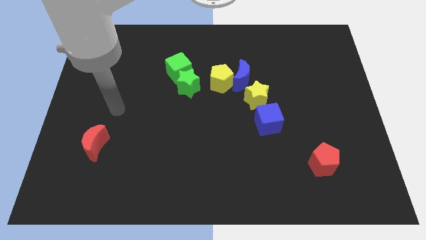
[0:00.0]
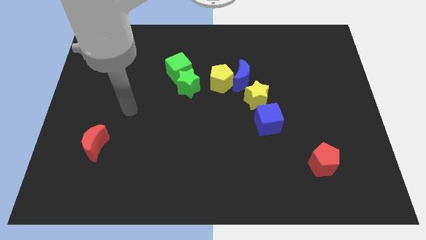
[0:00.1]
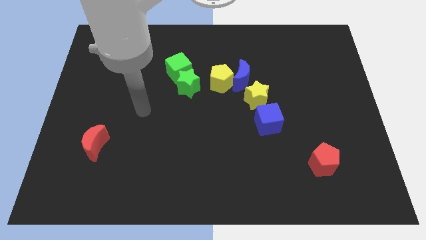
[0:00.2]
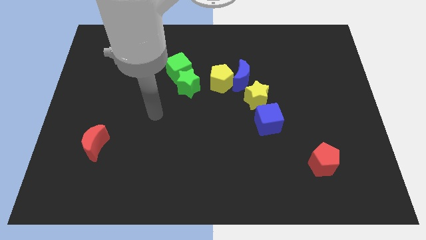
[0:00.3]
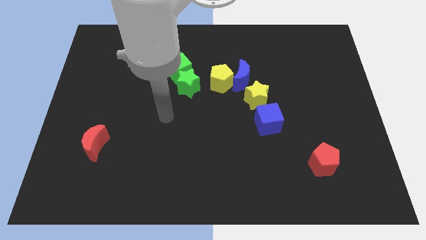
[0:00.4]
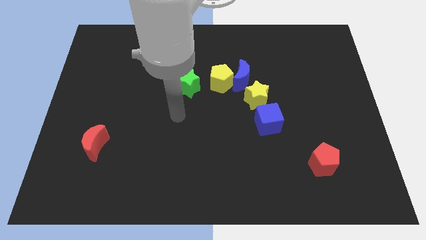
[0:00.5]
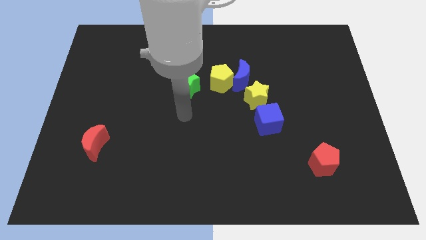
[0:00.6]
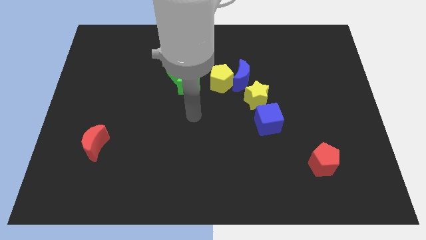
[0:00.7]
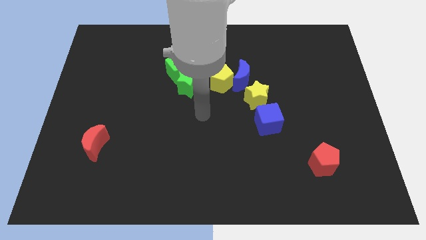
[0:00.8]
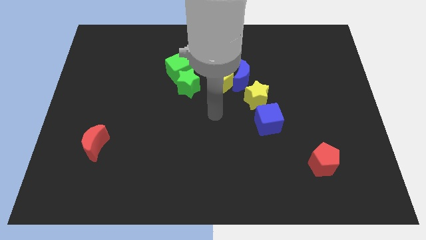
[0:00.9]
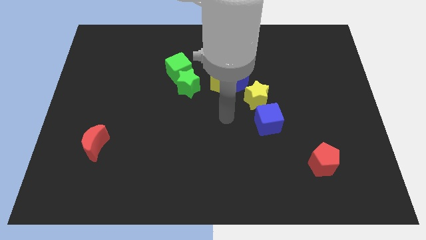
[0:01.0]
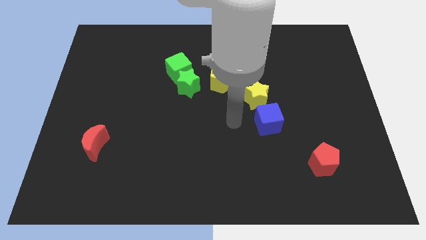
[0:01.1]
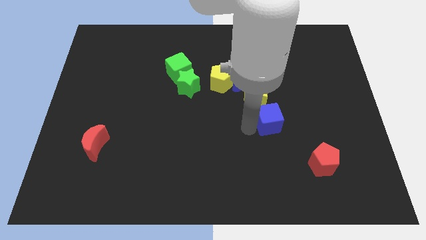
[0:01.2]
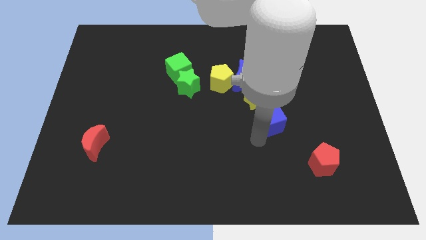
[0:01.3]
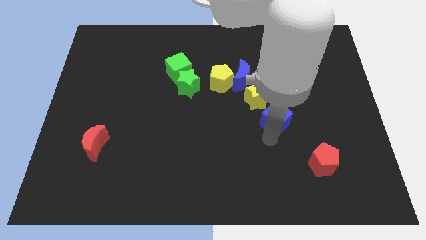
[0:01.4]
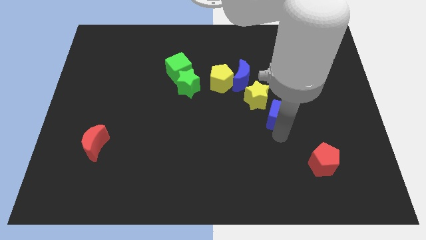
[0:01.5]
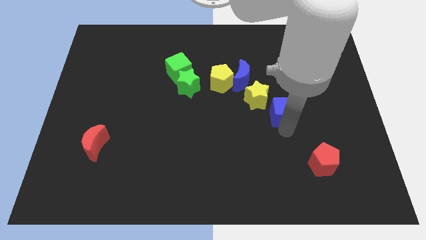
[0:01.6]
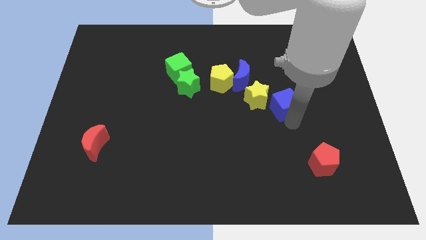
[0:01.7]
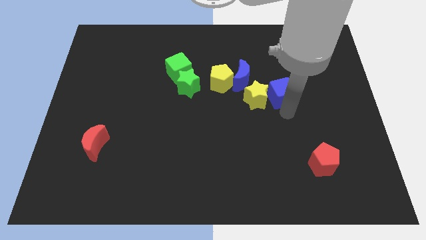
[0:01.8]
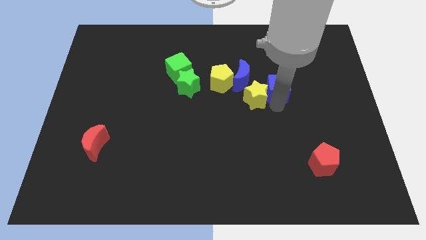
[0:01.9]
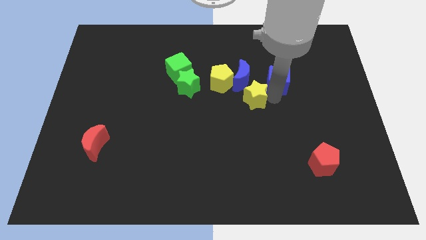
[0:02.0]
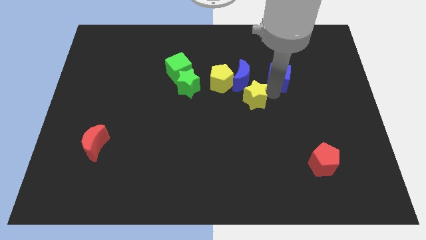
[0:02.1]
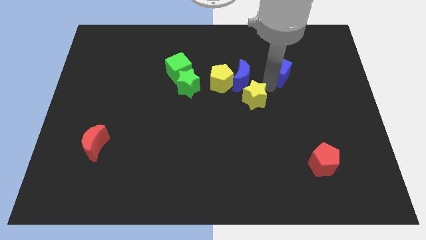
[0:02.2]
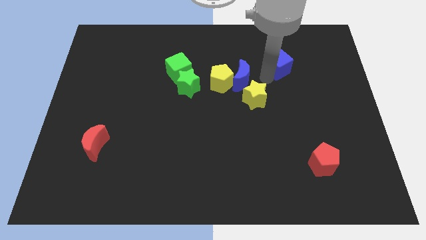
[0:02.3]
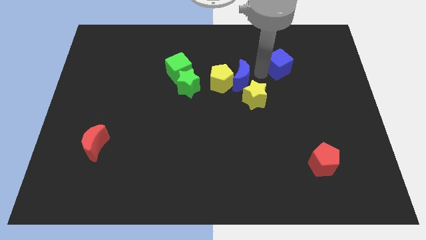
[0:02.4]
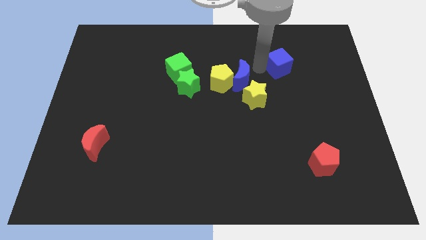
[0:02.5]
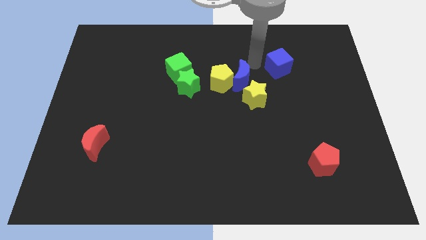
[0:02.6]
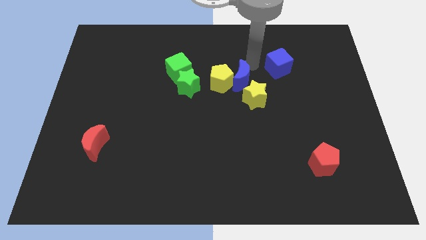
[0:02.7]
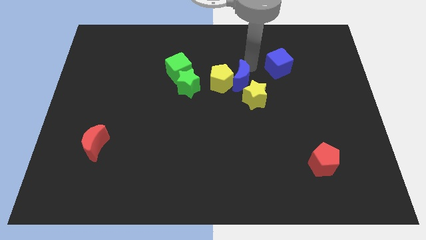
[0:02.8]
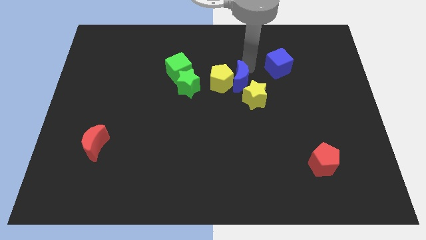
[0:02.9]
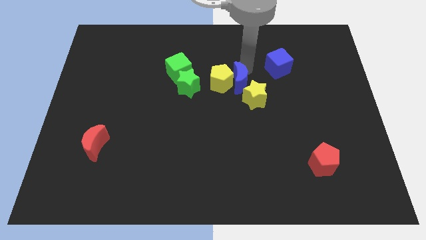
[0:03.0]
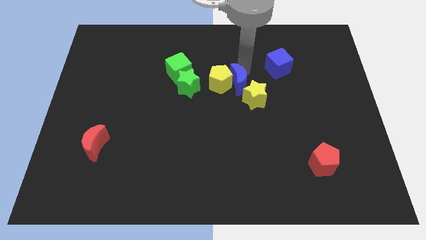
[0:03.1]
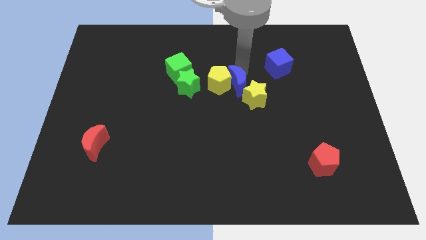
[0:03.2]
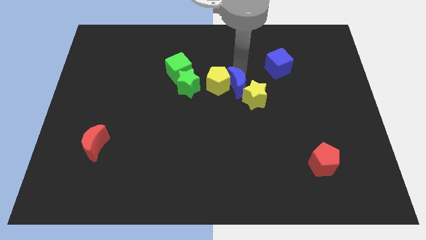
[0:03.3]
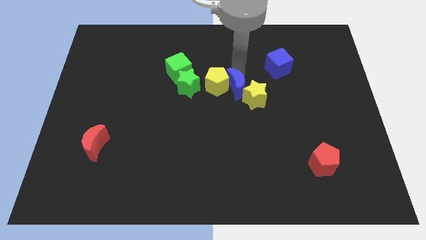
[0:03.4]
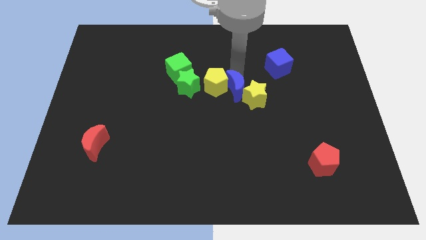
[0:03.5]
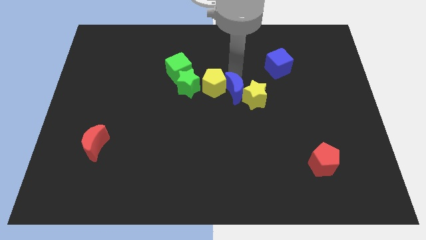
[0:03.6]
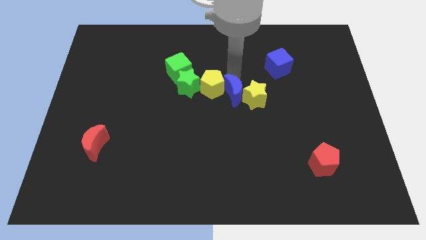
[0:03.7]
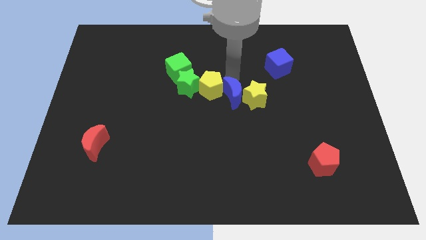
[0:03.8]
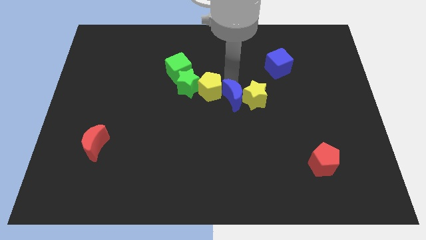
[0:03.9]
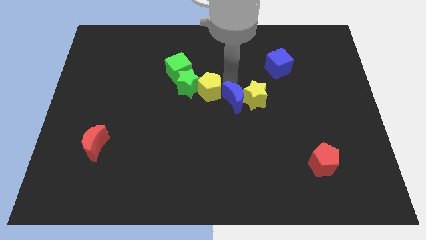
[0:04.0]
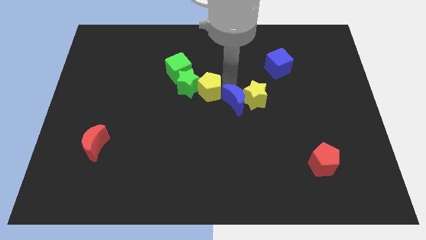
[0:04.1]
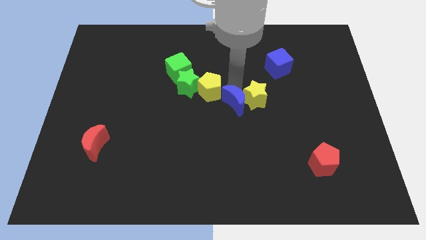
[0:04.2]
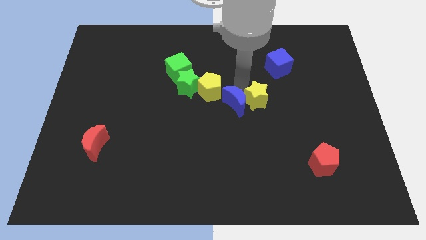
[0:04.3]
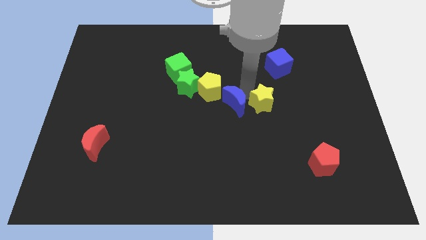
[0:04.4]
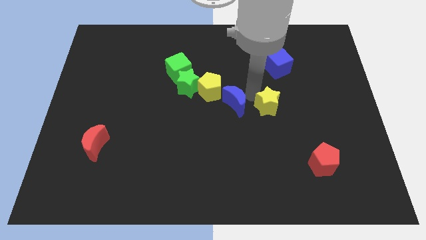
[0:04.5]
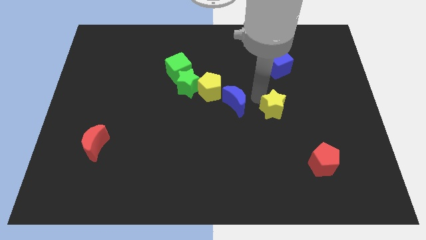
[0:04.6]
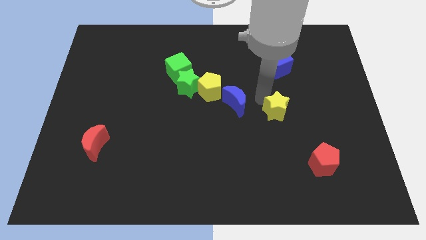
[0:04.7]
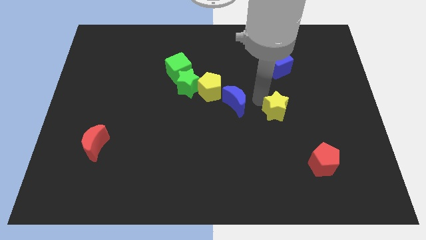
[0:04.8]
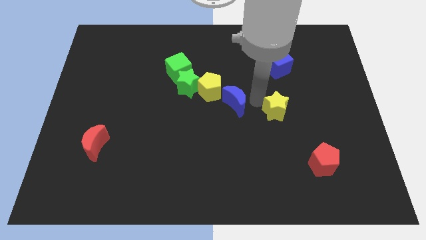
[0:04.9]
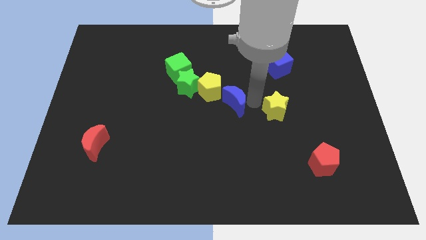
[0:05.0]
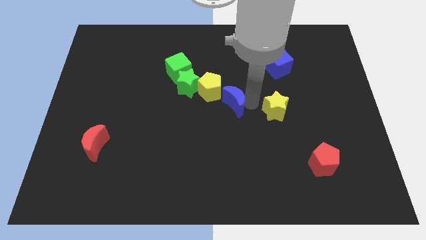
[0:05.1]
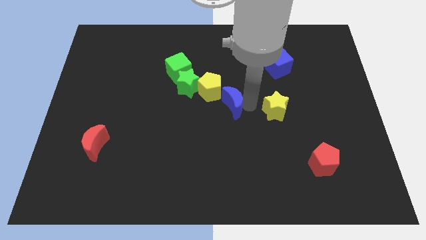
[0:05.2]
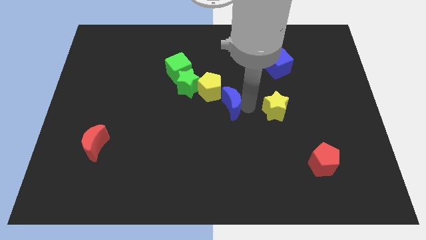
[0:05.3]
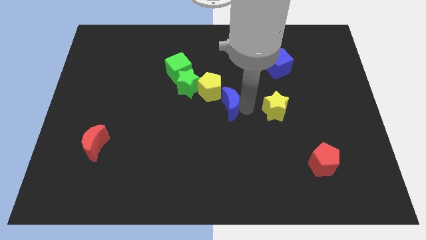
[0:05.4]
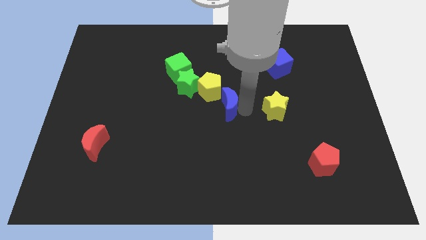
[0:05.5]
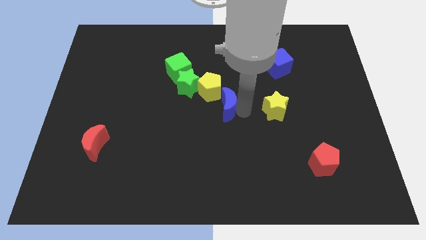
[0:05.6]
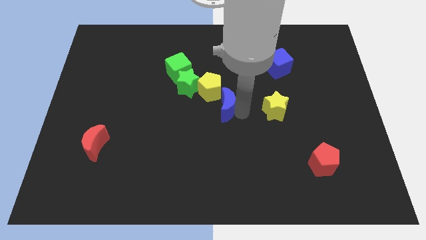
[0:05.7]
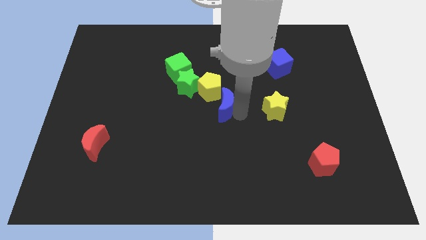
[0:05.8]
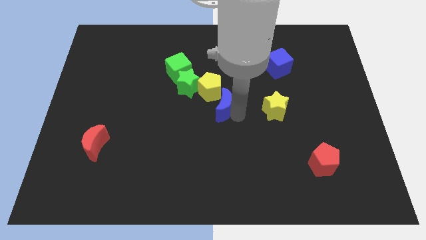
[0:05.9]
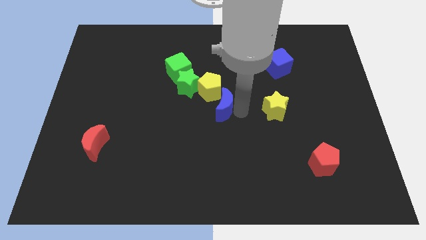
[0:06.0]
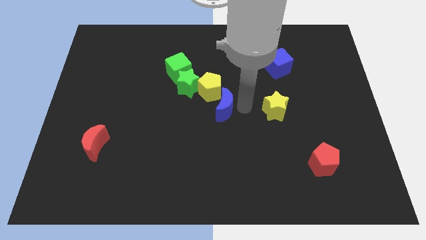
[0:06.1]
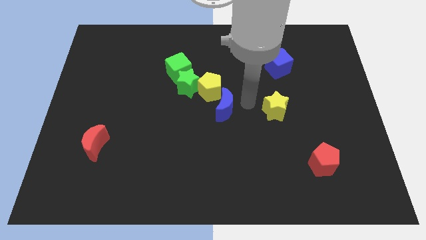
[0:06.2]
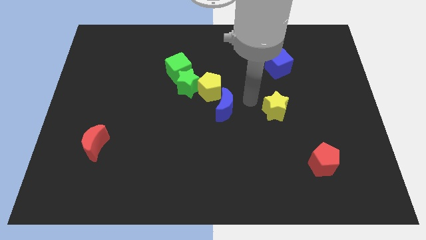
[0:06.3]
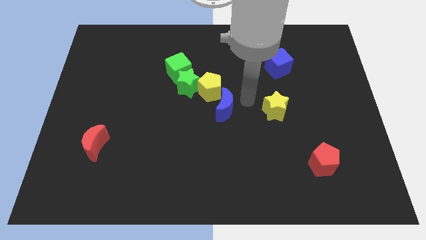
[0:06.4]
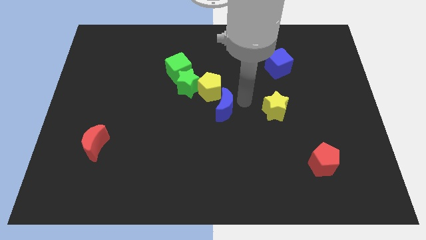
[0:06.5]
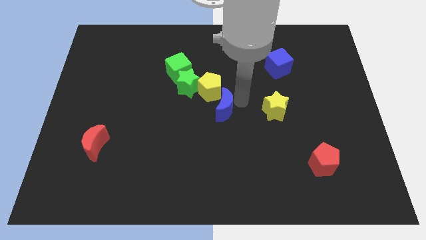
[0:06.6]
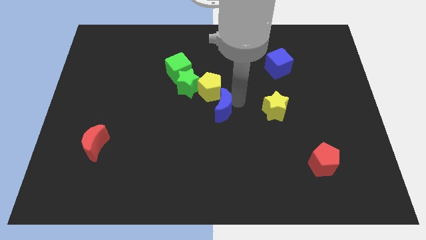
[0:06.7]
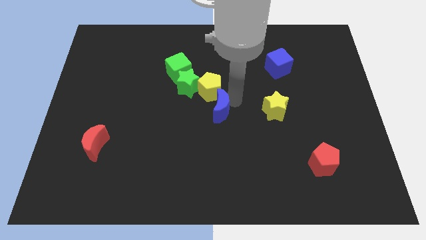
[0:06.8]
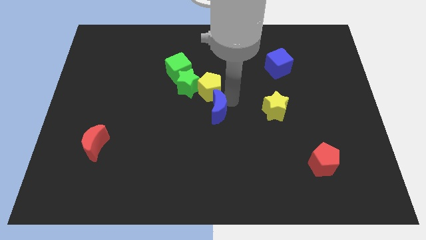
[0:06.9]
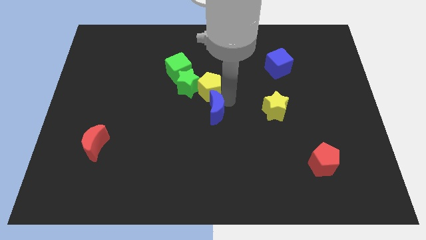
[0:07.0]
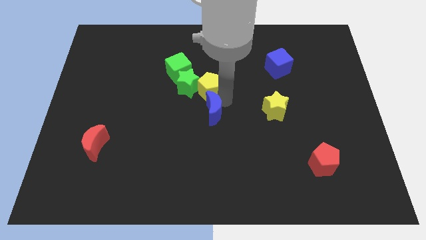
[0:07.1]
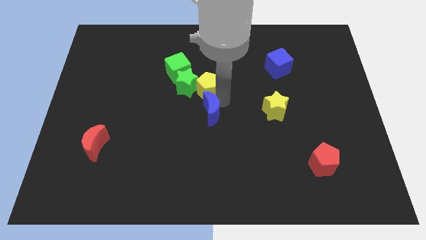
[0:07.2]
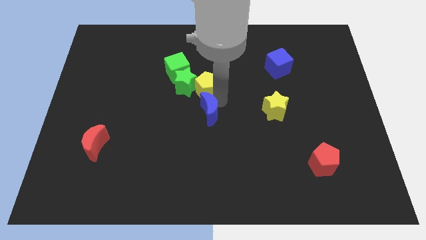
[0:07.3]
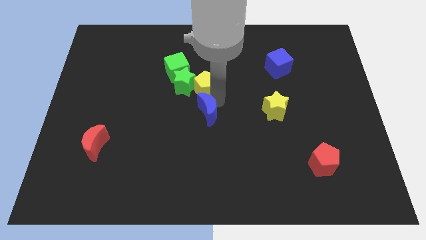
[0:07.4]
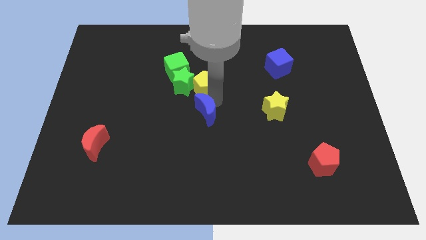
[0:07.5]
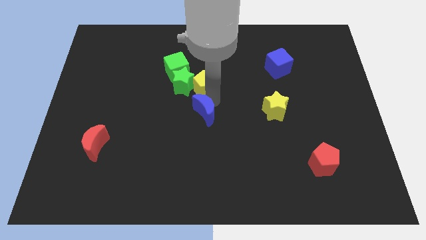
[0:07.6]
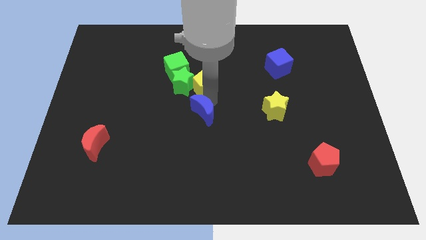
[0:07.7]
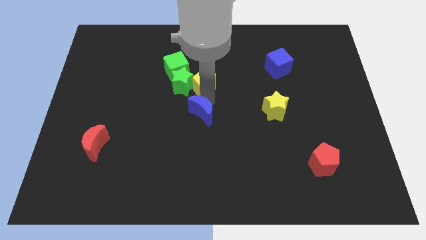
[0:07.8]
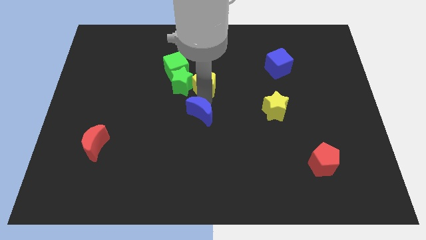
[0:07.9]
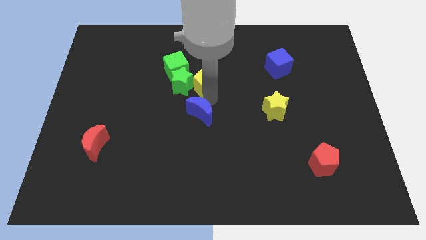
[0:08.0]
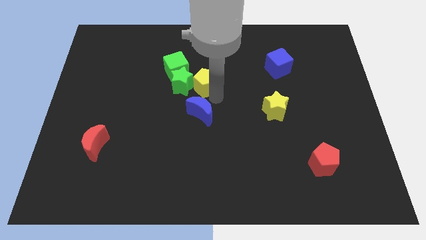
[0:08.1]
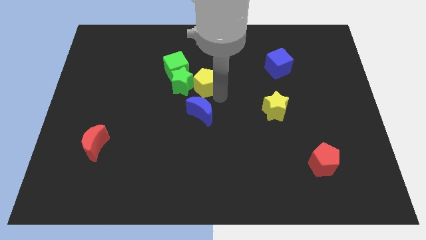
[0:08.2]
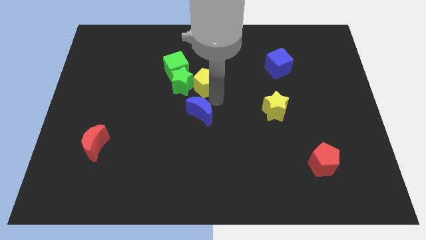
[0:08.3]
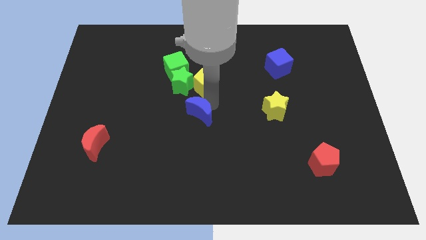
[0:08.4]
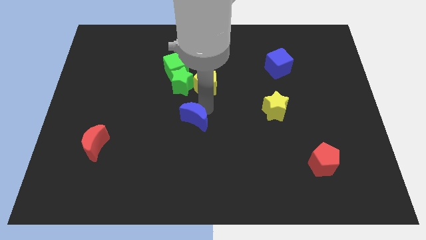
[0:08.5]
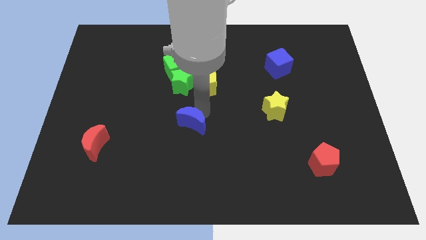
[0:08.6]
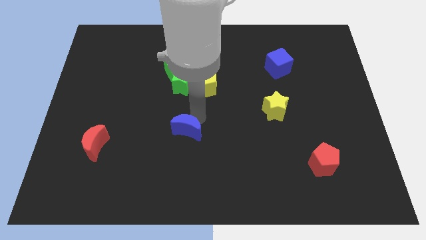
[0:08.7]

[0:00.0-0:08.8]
push the blue moon down and then to the left
